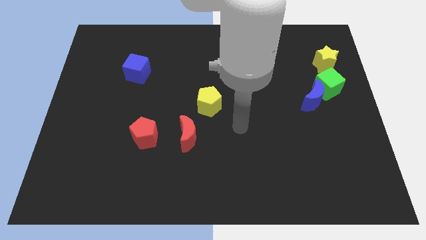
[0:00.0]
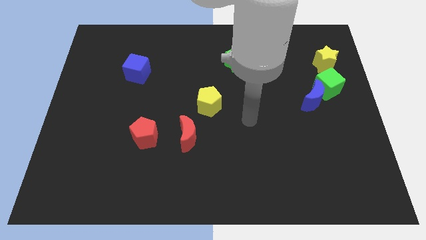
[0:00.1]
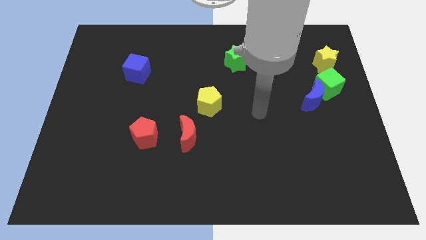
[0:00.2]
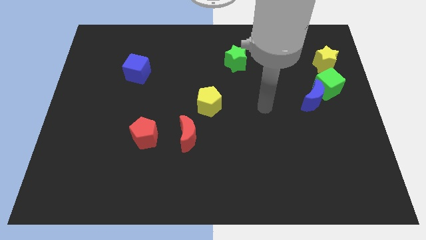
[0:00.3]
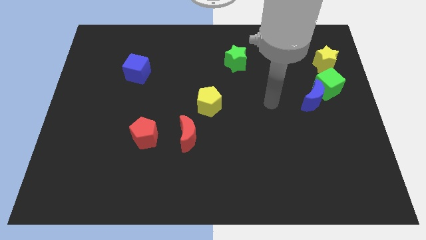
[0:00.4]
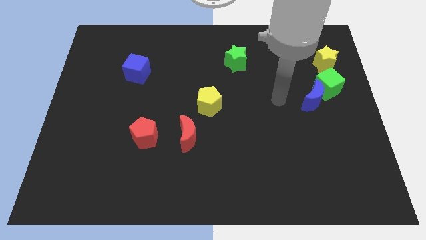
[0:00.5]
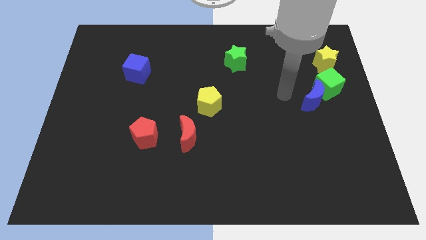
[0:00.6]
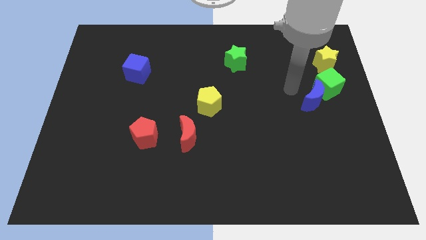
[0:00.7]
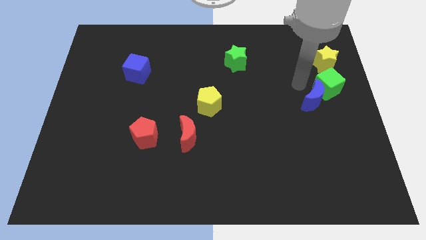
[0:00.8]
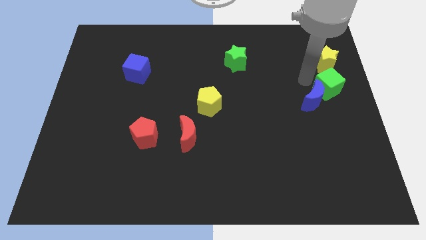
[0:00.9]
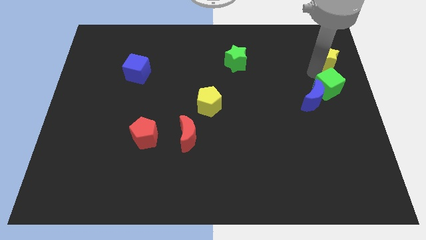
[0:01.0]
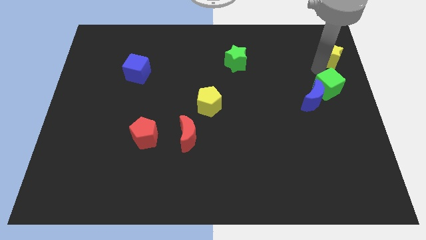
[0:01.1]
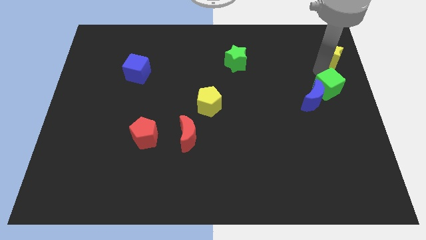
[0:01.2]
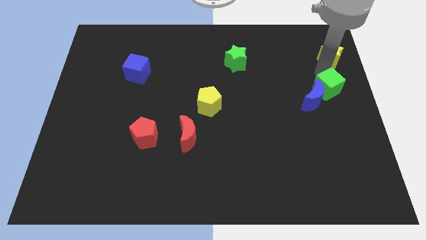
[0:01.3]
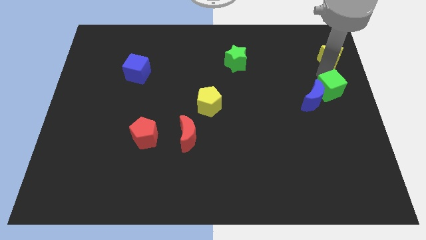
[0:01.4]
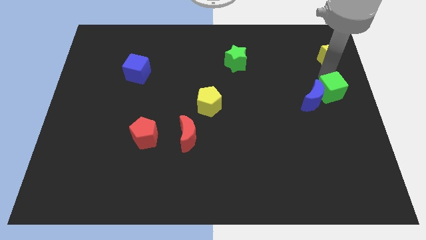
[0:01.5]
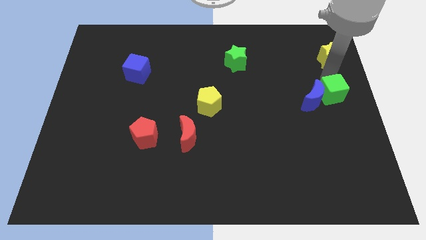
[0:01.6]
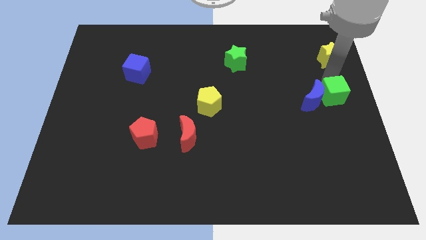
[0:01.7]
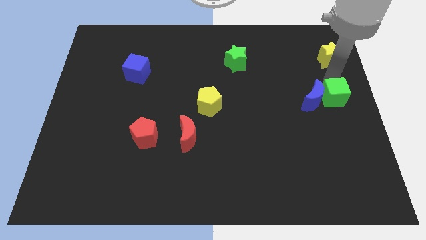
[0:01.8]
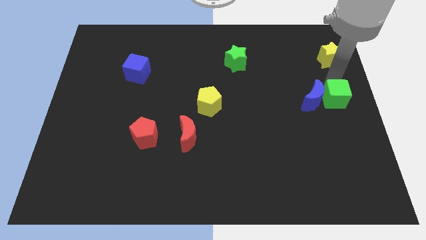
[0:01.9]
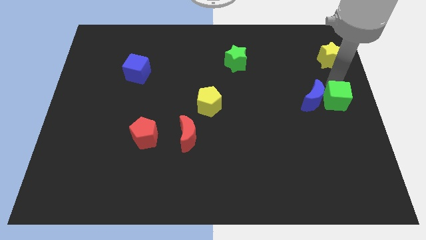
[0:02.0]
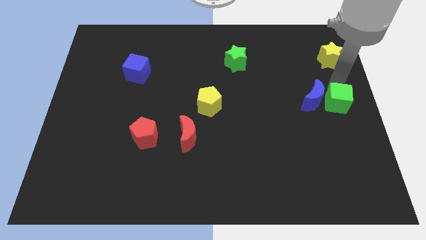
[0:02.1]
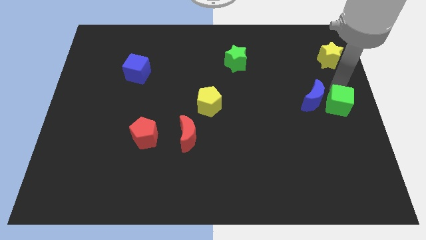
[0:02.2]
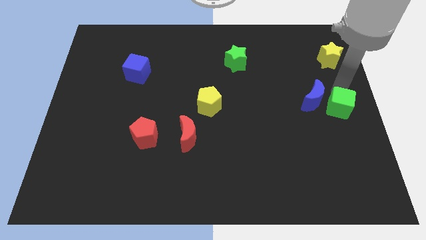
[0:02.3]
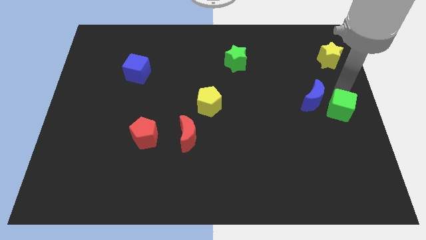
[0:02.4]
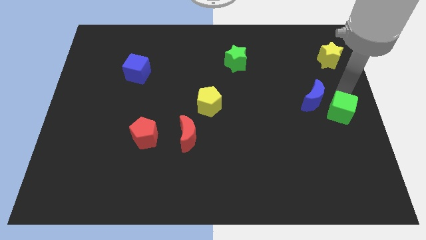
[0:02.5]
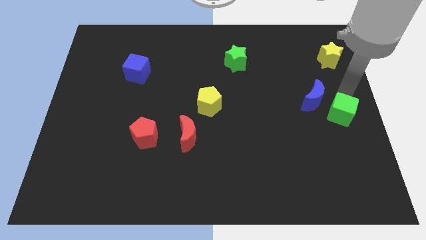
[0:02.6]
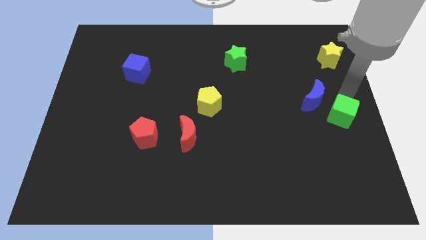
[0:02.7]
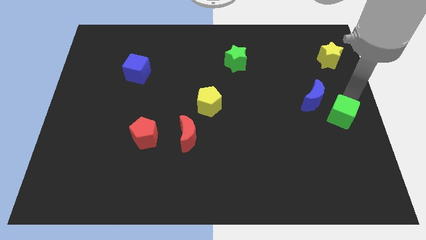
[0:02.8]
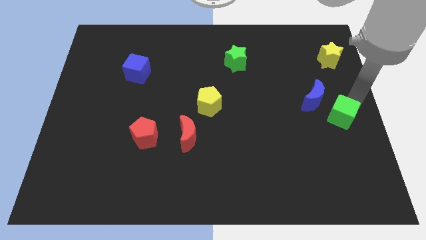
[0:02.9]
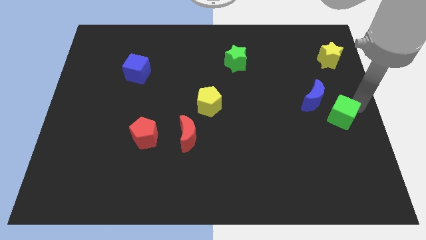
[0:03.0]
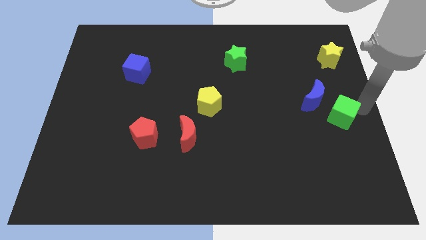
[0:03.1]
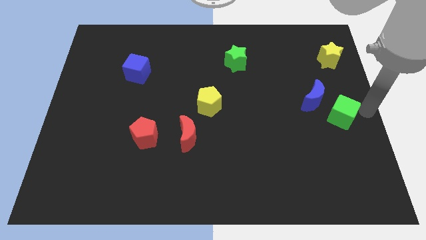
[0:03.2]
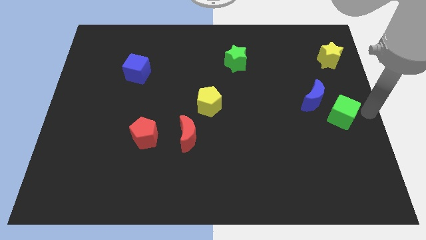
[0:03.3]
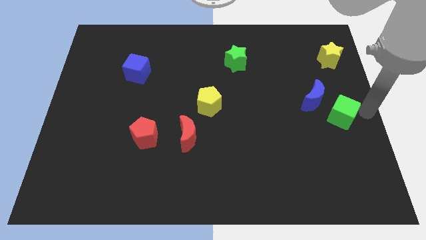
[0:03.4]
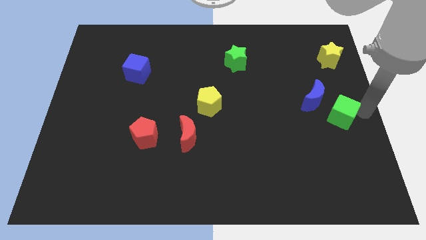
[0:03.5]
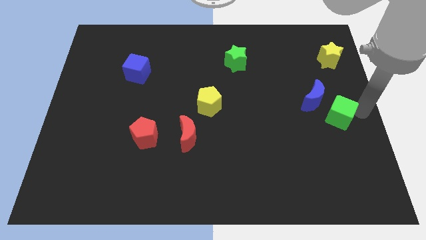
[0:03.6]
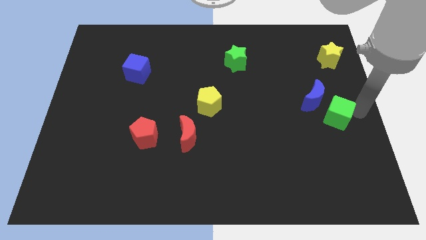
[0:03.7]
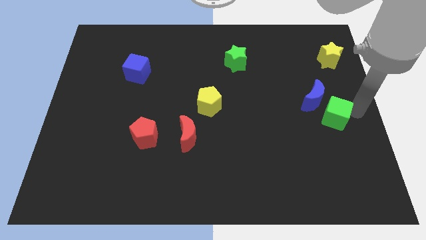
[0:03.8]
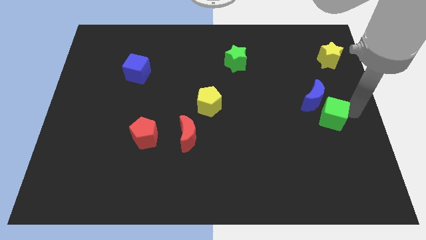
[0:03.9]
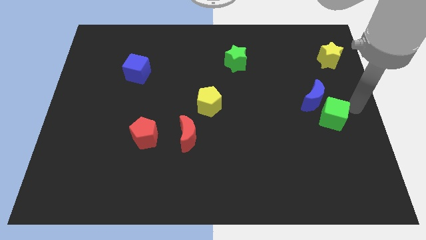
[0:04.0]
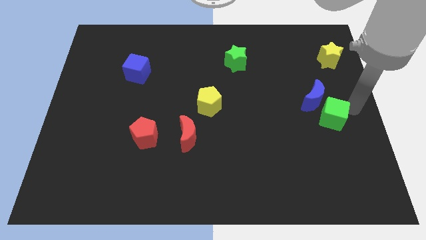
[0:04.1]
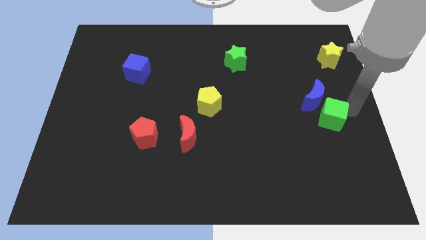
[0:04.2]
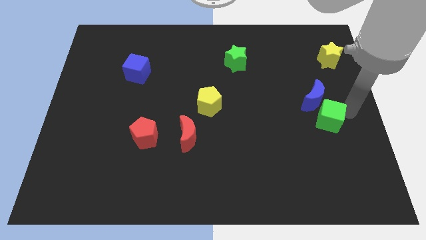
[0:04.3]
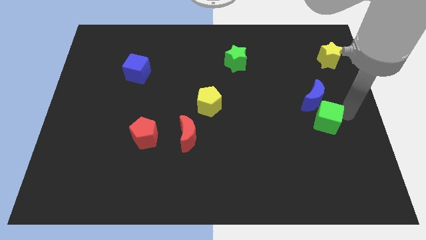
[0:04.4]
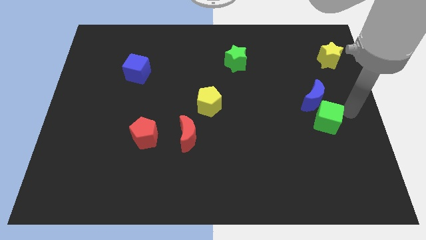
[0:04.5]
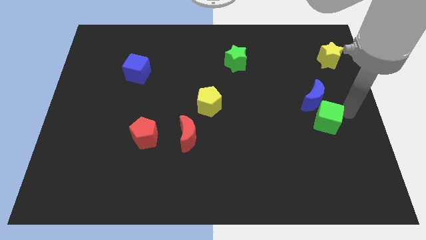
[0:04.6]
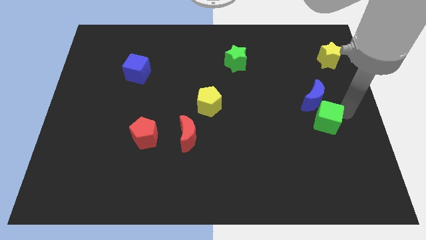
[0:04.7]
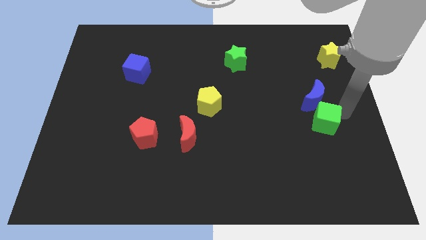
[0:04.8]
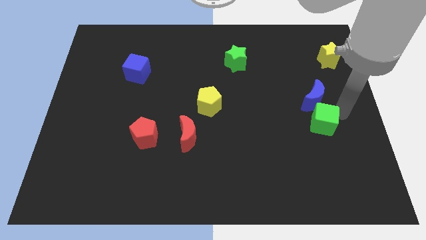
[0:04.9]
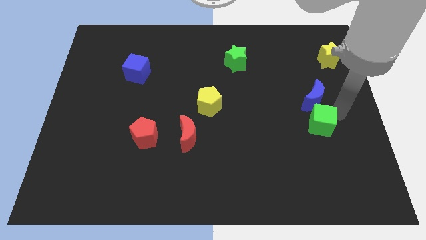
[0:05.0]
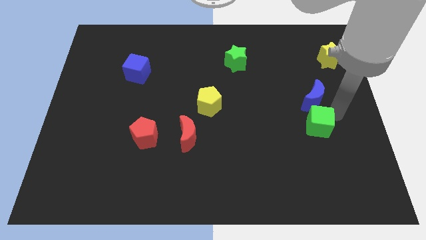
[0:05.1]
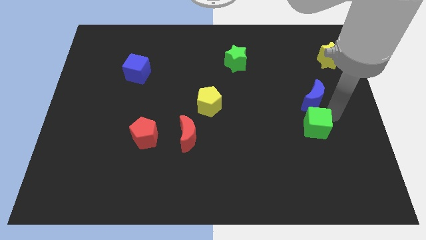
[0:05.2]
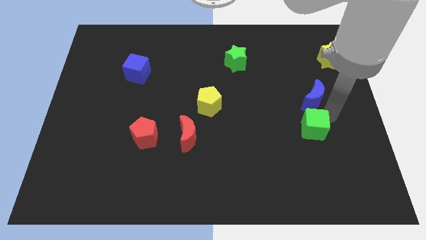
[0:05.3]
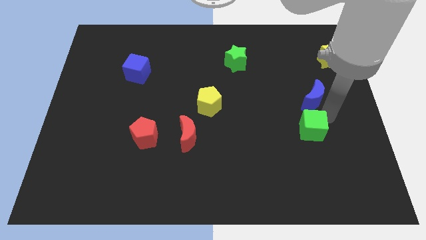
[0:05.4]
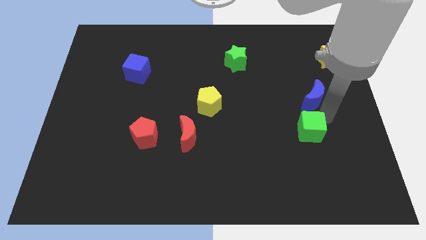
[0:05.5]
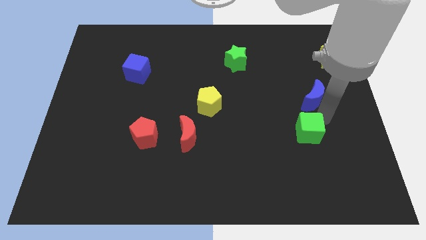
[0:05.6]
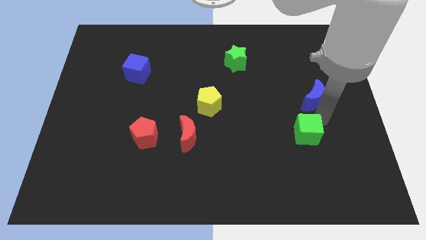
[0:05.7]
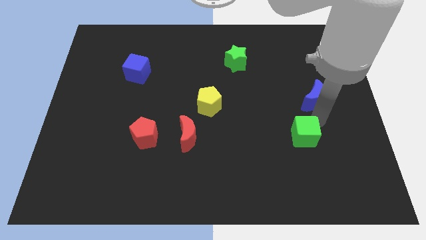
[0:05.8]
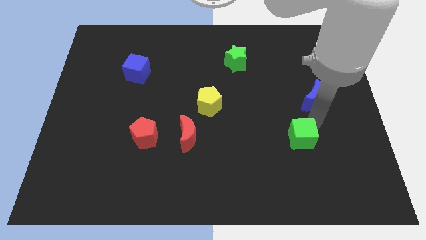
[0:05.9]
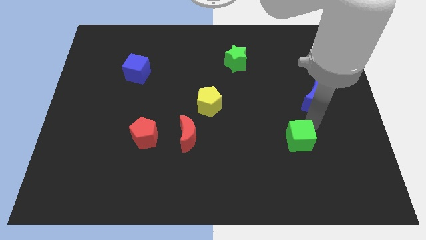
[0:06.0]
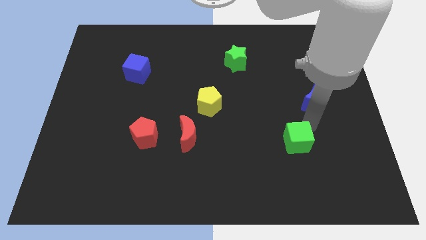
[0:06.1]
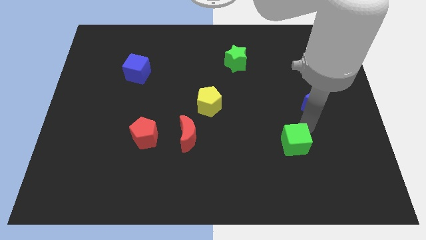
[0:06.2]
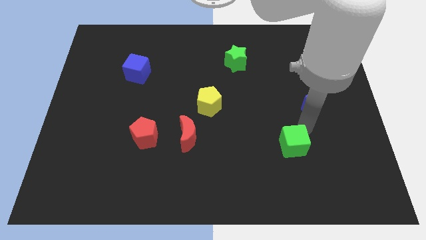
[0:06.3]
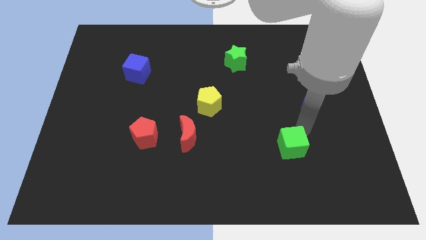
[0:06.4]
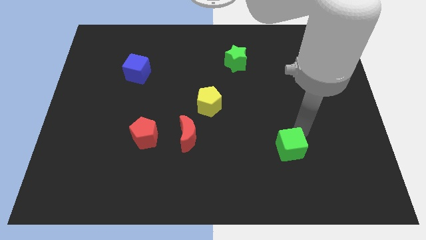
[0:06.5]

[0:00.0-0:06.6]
slide the green cube diagonally down and left

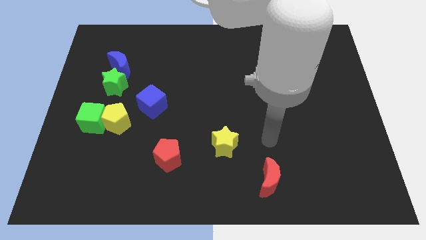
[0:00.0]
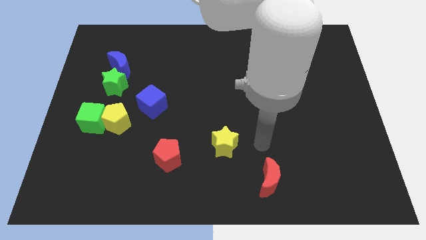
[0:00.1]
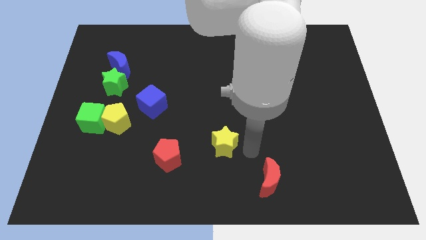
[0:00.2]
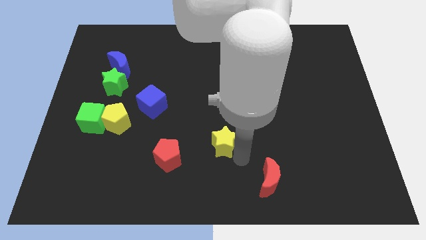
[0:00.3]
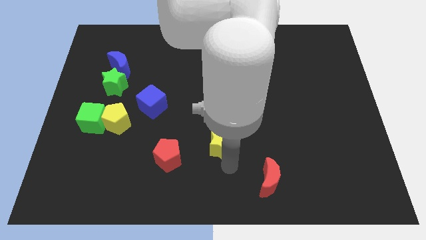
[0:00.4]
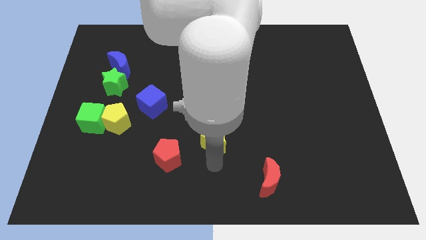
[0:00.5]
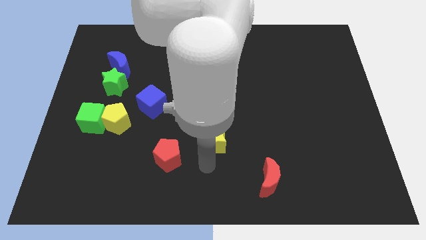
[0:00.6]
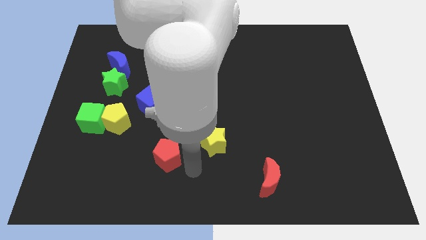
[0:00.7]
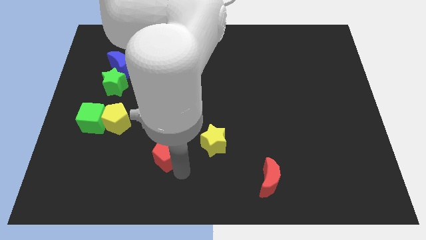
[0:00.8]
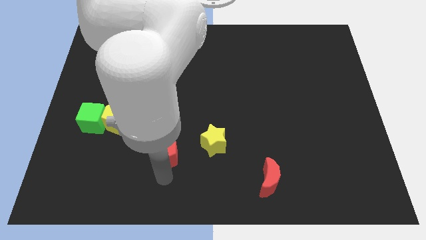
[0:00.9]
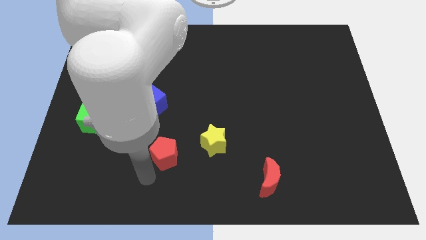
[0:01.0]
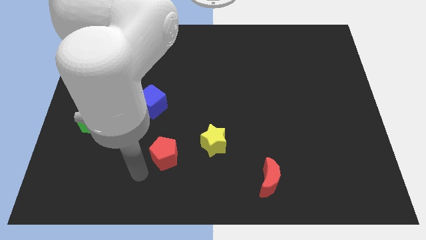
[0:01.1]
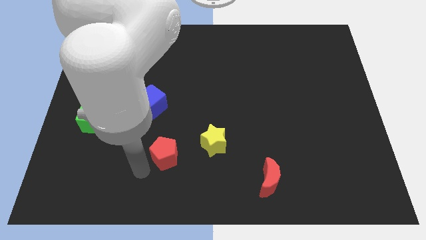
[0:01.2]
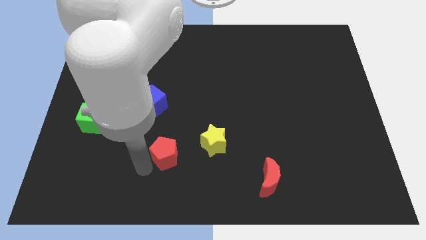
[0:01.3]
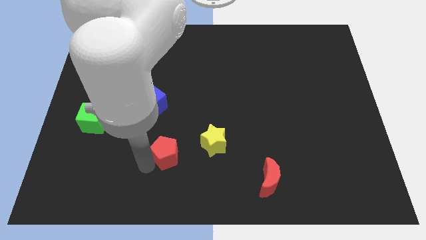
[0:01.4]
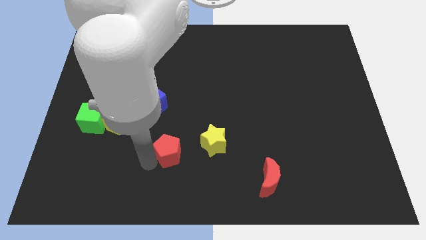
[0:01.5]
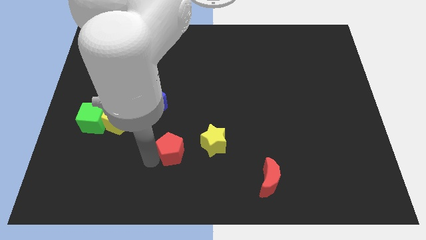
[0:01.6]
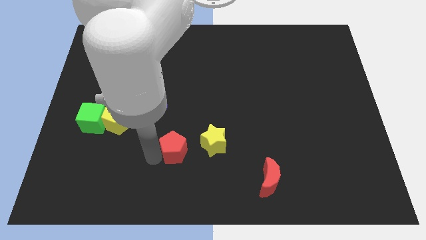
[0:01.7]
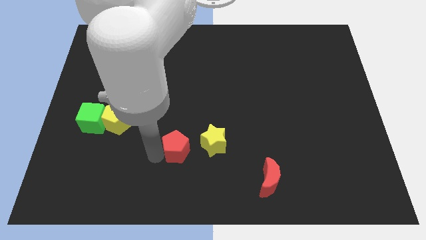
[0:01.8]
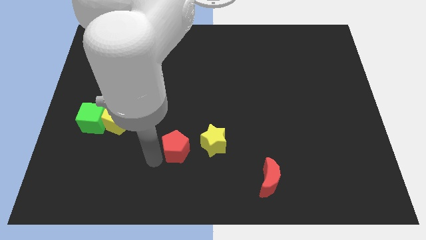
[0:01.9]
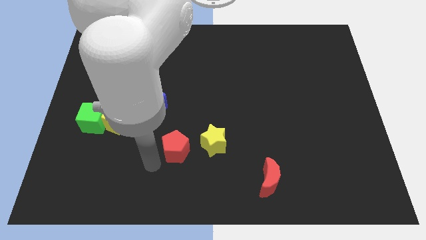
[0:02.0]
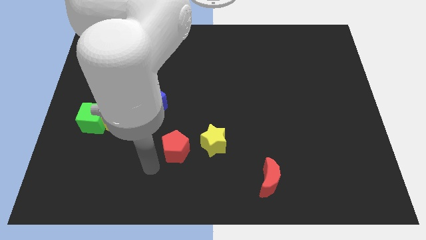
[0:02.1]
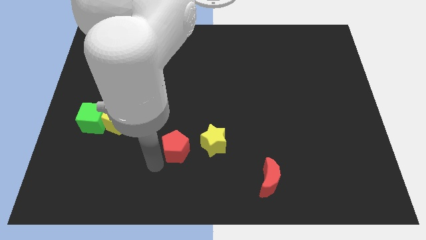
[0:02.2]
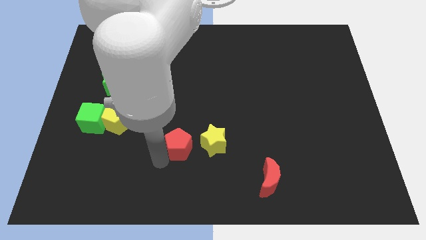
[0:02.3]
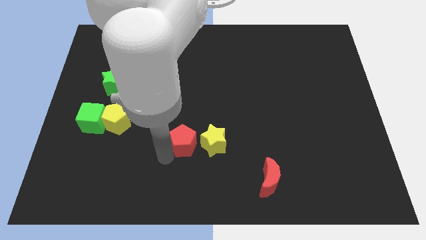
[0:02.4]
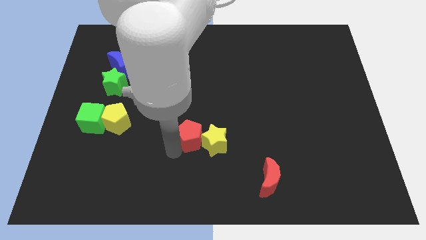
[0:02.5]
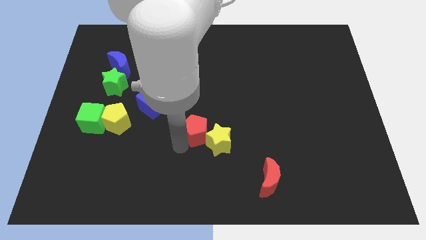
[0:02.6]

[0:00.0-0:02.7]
slide the red pentagon up and right diagonally somewhat
